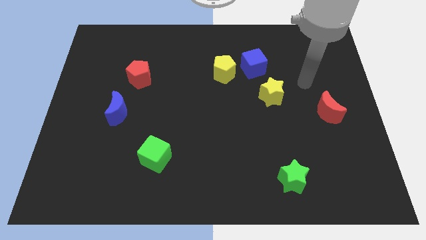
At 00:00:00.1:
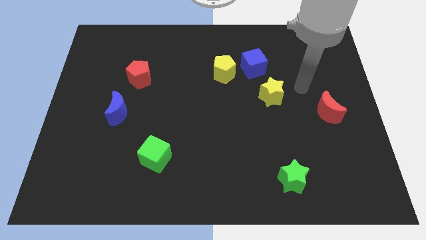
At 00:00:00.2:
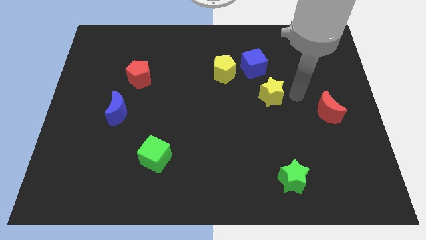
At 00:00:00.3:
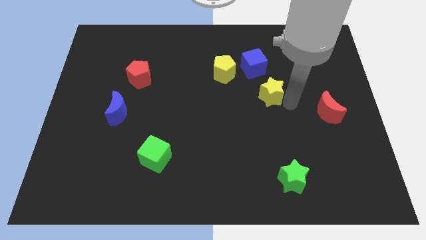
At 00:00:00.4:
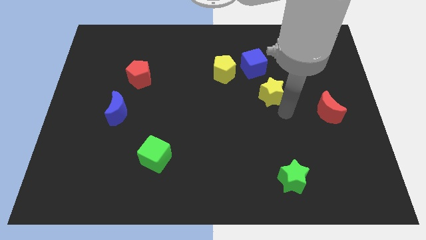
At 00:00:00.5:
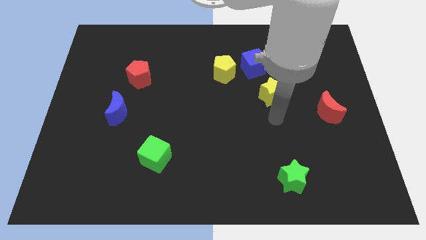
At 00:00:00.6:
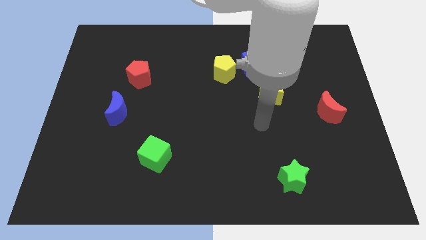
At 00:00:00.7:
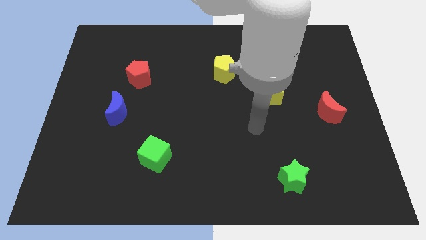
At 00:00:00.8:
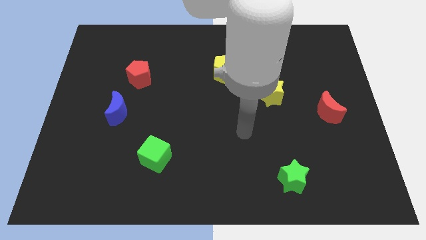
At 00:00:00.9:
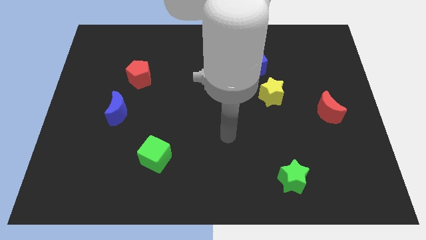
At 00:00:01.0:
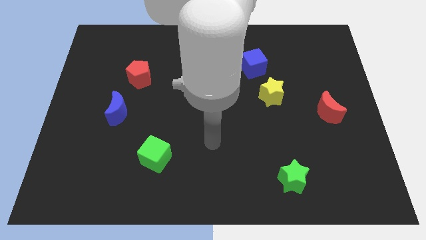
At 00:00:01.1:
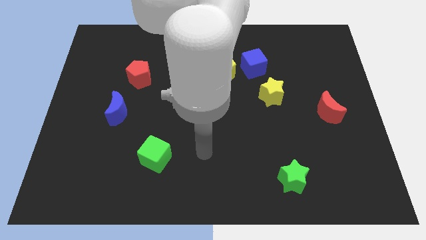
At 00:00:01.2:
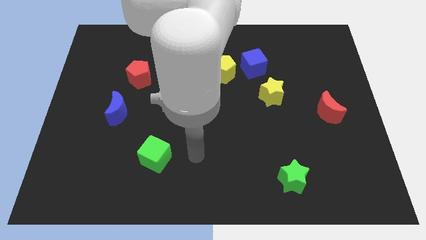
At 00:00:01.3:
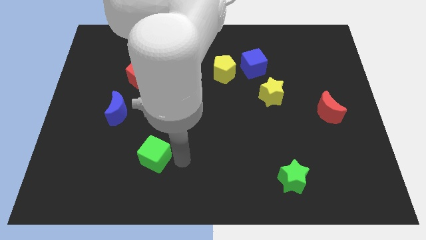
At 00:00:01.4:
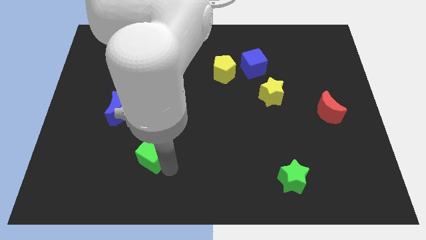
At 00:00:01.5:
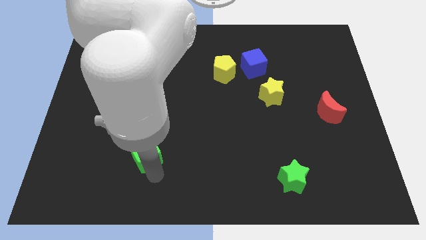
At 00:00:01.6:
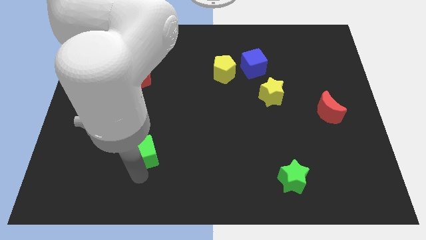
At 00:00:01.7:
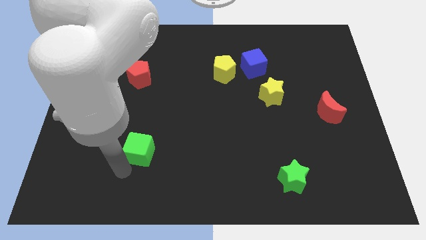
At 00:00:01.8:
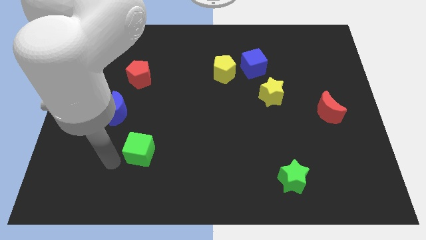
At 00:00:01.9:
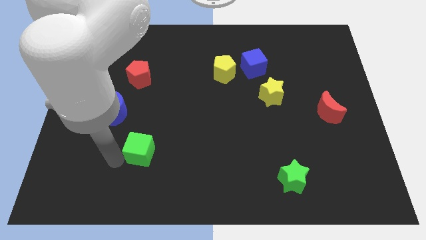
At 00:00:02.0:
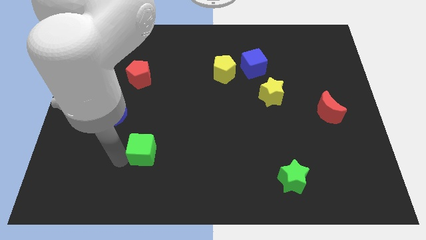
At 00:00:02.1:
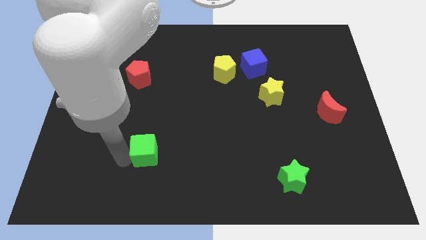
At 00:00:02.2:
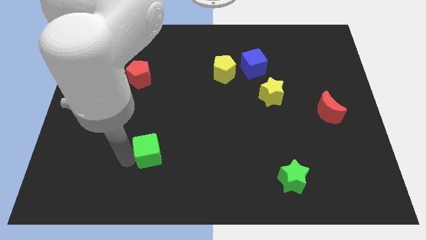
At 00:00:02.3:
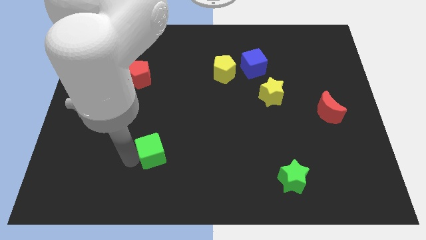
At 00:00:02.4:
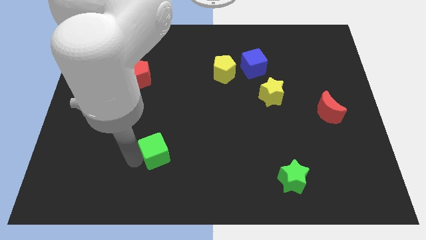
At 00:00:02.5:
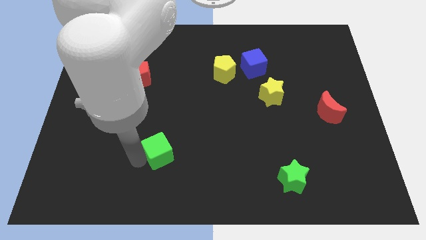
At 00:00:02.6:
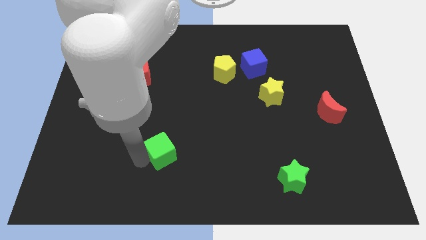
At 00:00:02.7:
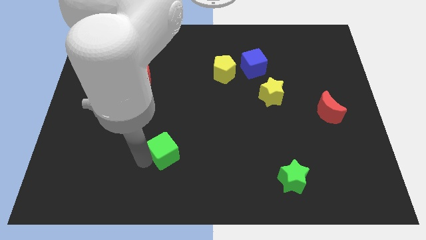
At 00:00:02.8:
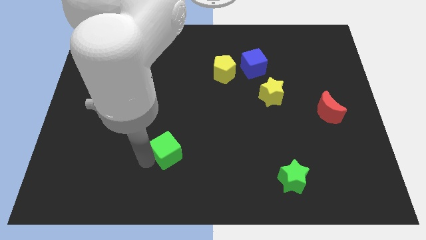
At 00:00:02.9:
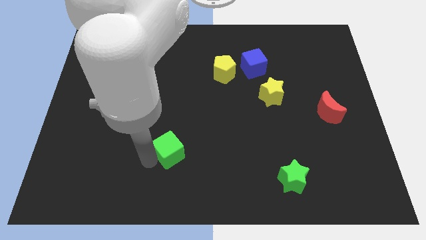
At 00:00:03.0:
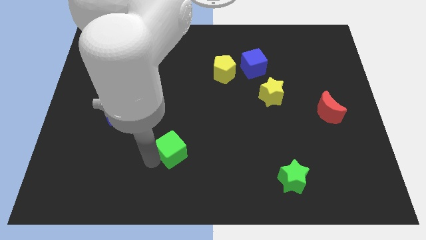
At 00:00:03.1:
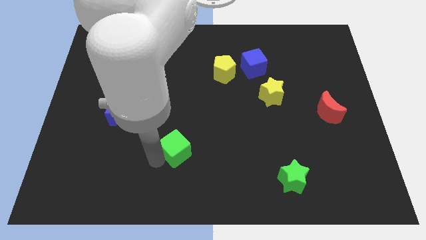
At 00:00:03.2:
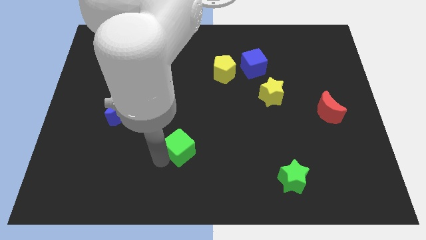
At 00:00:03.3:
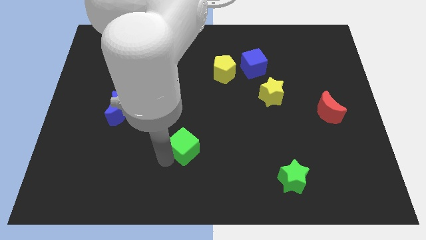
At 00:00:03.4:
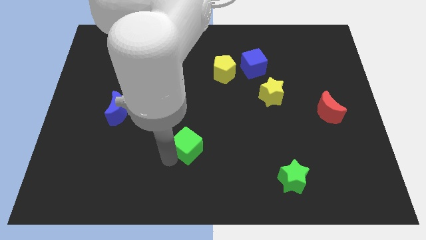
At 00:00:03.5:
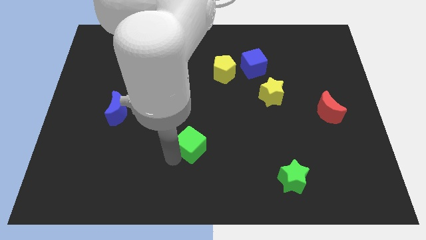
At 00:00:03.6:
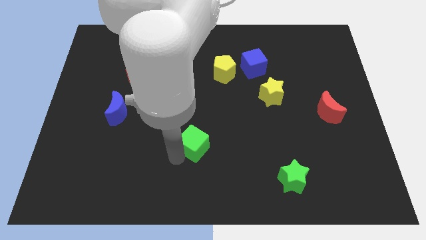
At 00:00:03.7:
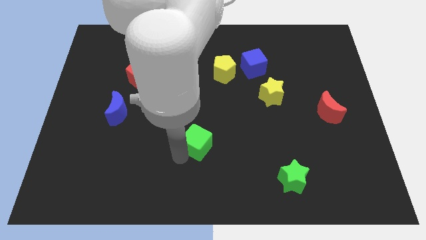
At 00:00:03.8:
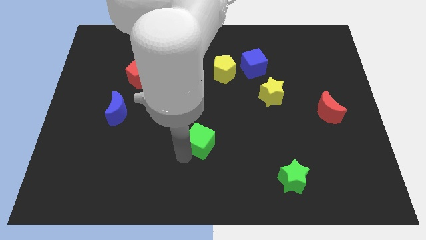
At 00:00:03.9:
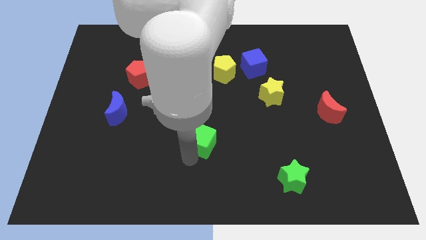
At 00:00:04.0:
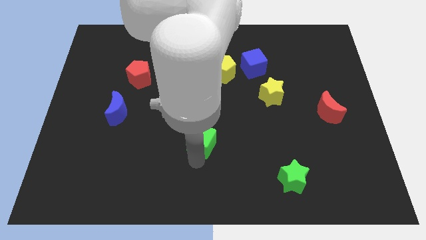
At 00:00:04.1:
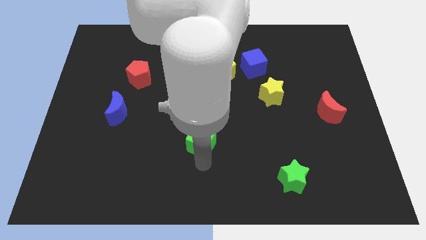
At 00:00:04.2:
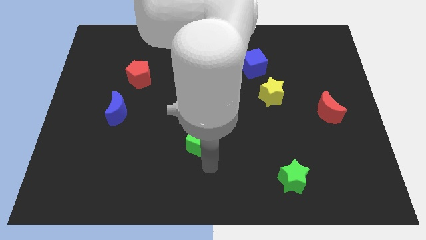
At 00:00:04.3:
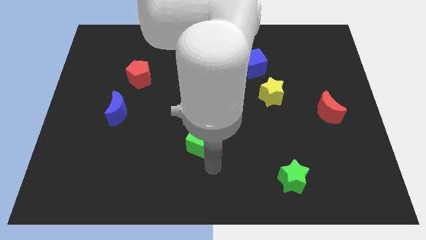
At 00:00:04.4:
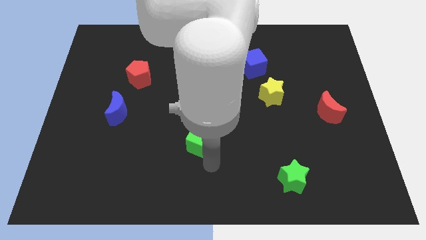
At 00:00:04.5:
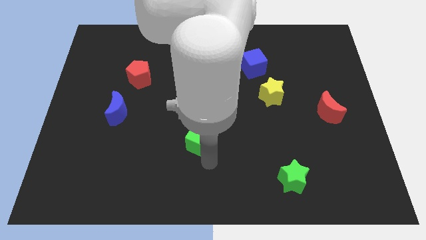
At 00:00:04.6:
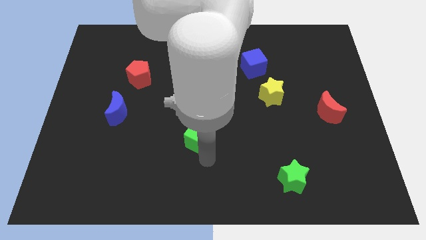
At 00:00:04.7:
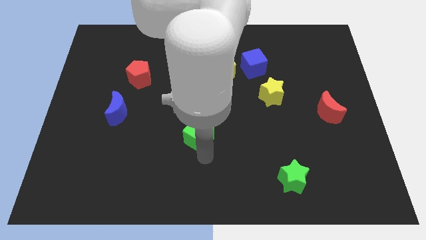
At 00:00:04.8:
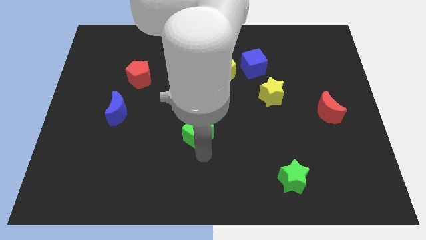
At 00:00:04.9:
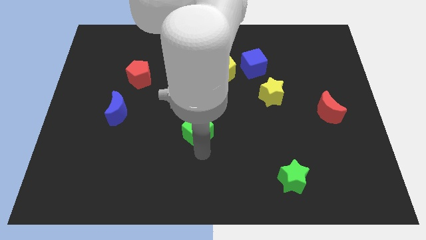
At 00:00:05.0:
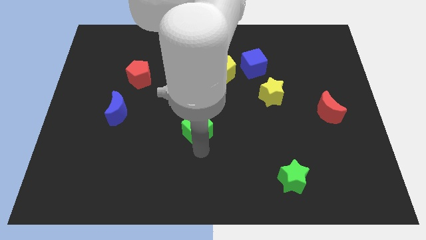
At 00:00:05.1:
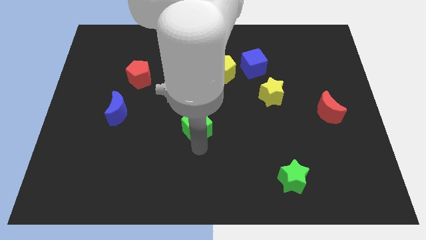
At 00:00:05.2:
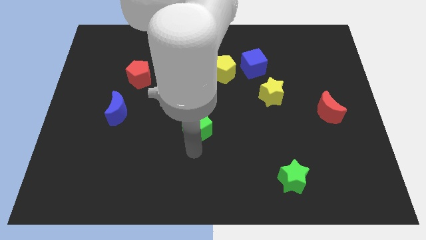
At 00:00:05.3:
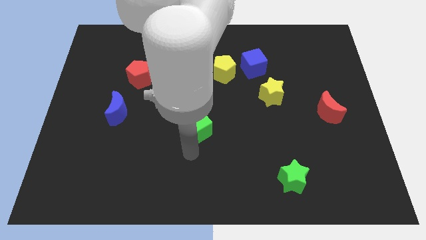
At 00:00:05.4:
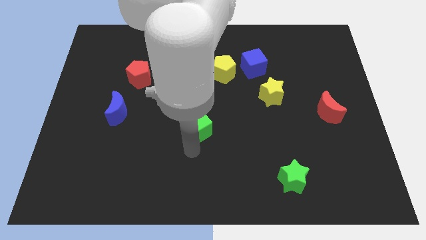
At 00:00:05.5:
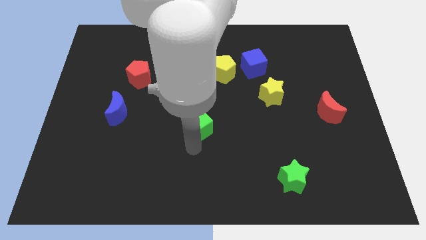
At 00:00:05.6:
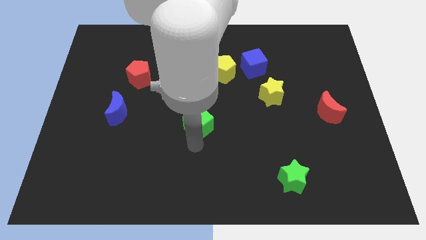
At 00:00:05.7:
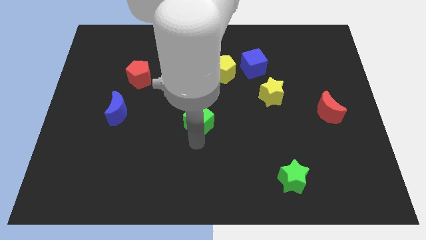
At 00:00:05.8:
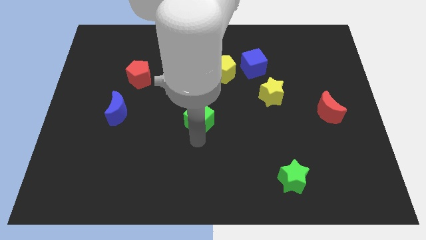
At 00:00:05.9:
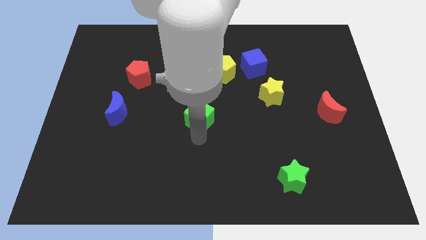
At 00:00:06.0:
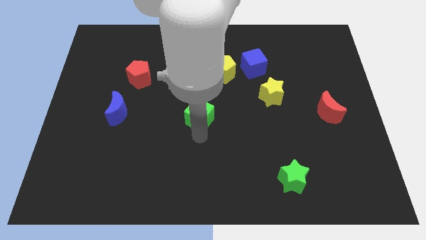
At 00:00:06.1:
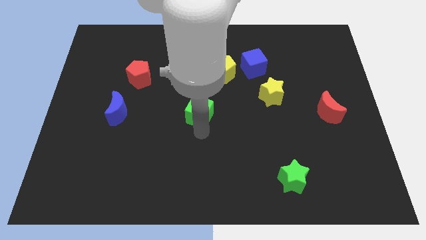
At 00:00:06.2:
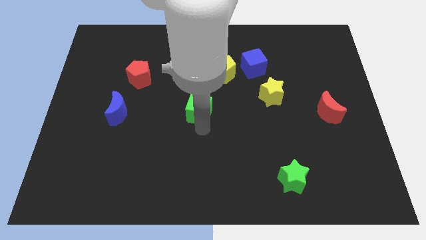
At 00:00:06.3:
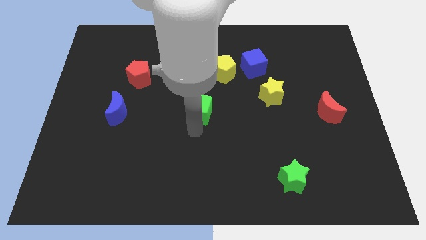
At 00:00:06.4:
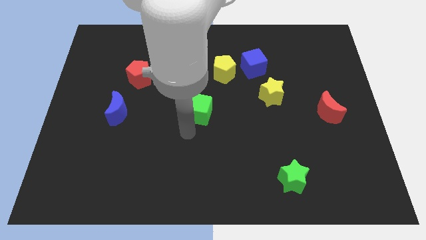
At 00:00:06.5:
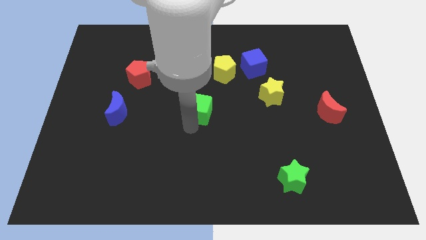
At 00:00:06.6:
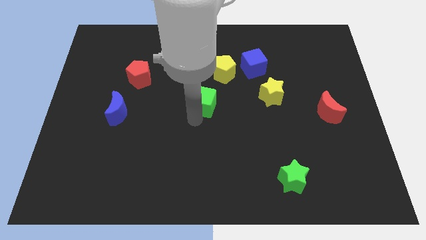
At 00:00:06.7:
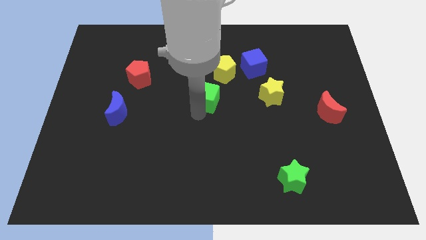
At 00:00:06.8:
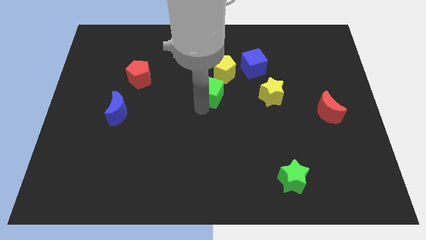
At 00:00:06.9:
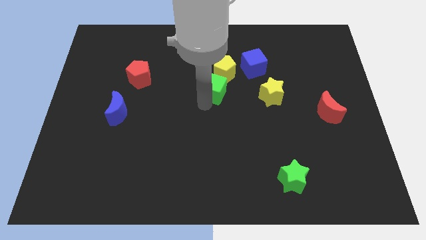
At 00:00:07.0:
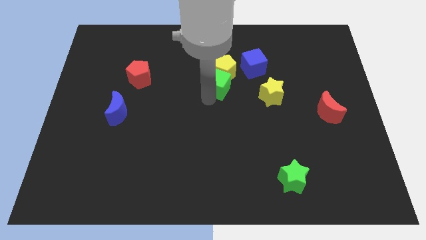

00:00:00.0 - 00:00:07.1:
move the green cube to the yellow pentagon
